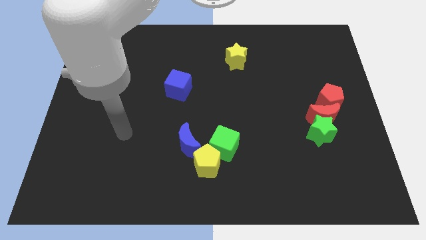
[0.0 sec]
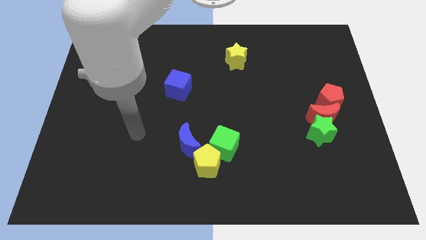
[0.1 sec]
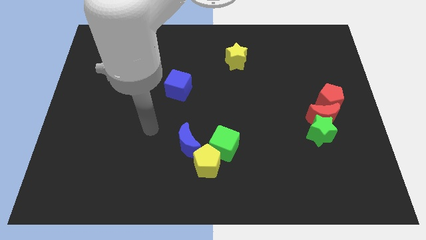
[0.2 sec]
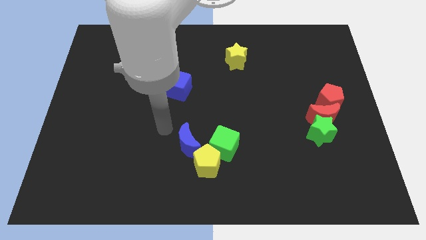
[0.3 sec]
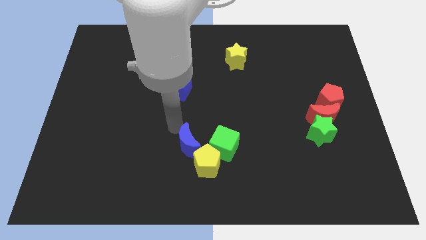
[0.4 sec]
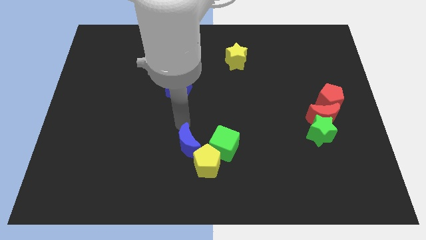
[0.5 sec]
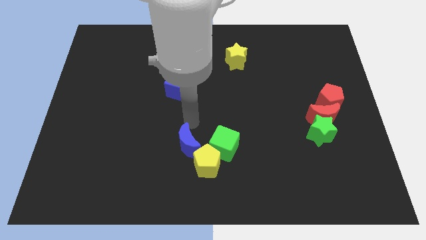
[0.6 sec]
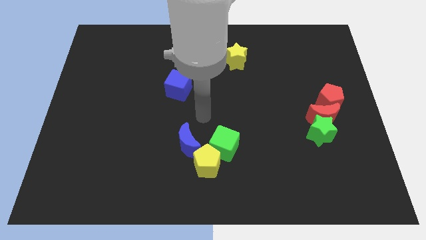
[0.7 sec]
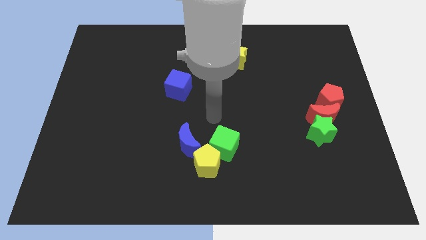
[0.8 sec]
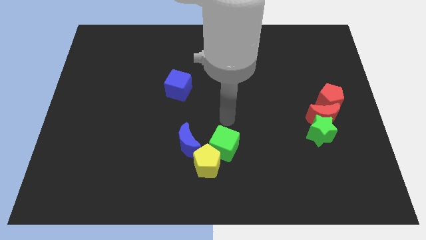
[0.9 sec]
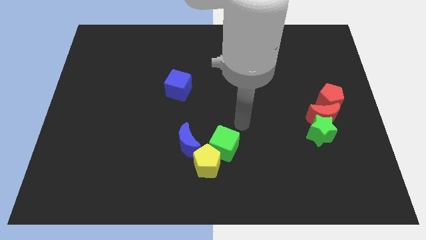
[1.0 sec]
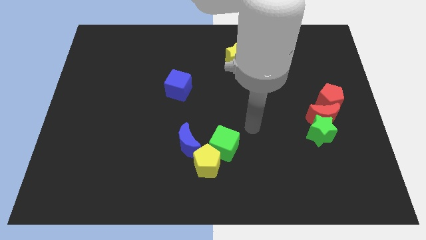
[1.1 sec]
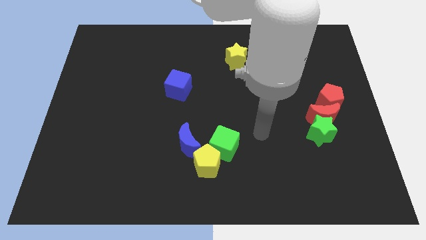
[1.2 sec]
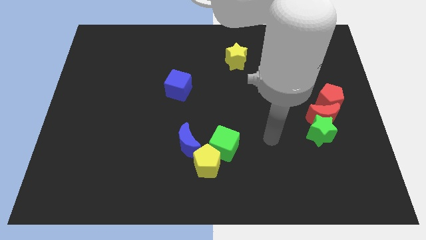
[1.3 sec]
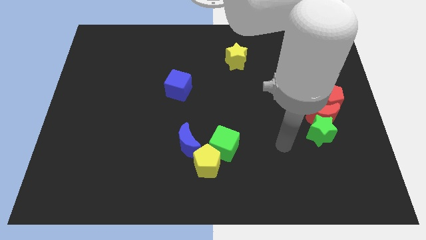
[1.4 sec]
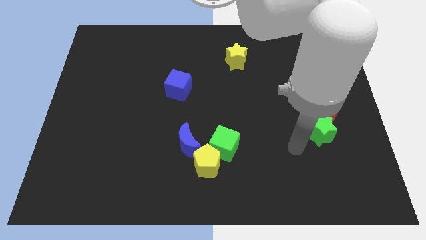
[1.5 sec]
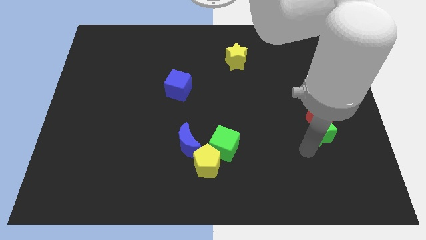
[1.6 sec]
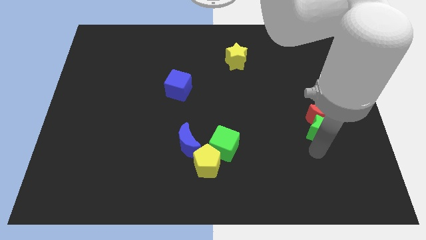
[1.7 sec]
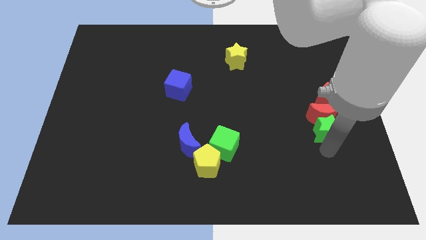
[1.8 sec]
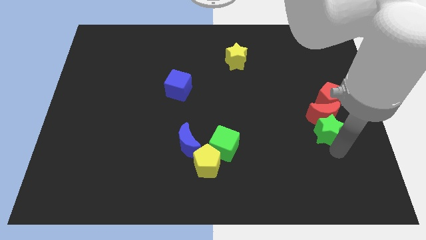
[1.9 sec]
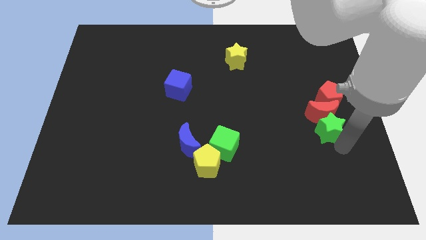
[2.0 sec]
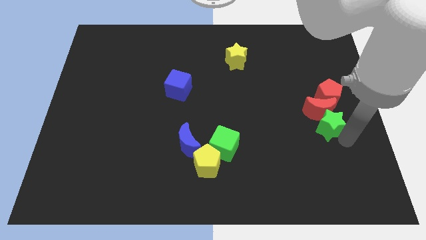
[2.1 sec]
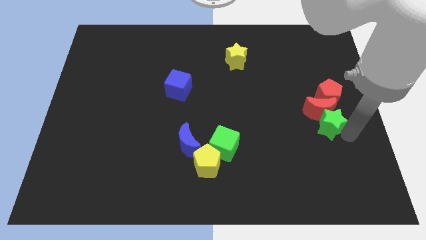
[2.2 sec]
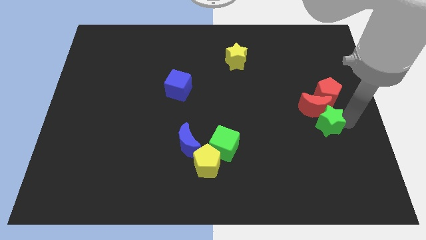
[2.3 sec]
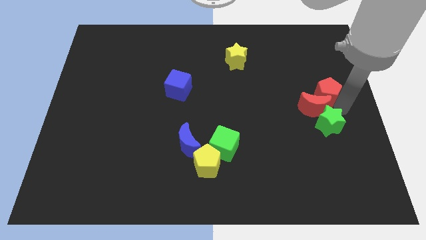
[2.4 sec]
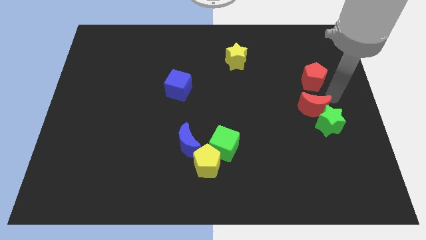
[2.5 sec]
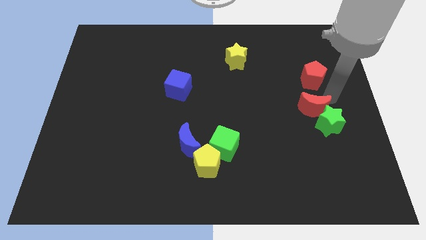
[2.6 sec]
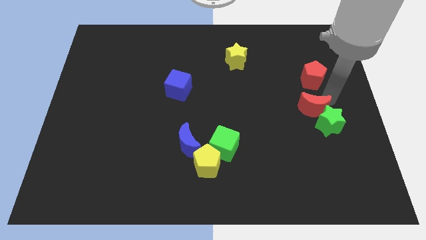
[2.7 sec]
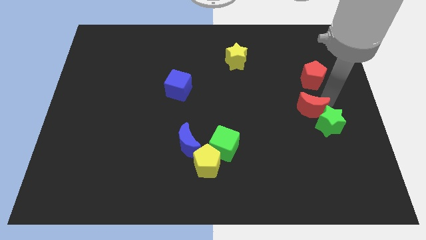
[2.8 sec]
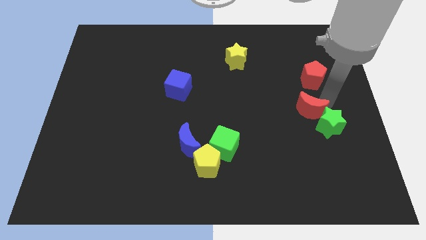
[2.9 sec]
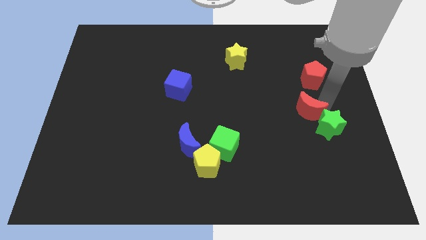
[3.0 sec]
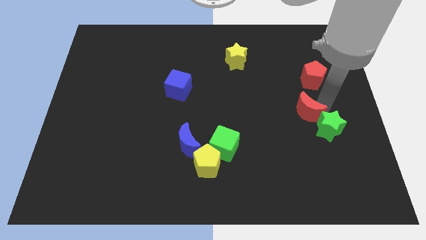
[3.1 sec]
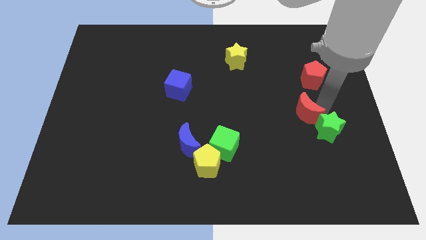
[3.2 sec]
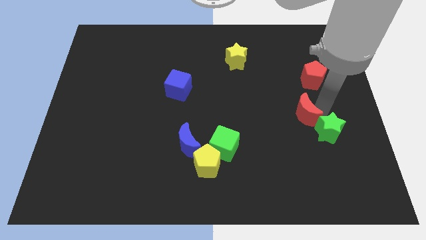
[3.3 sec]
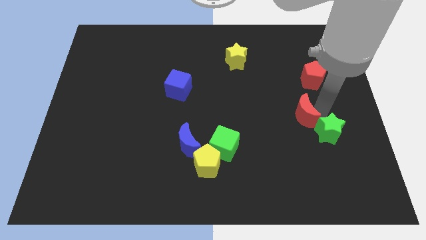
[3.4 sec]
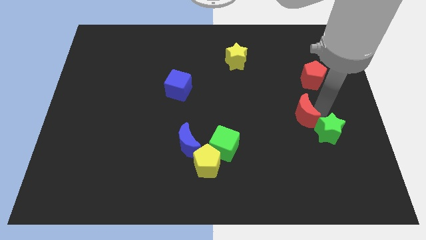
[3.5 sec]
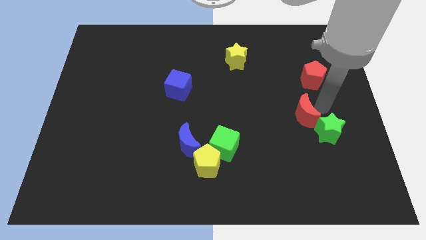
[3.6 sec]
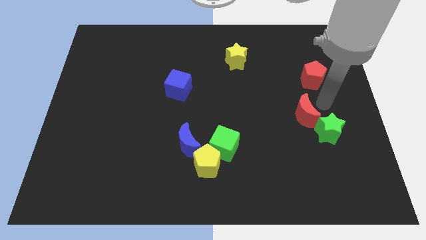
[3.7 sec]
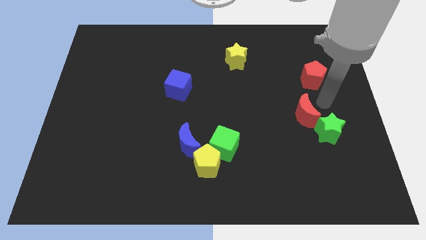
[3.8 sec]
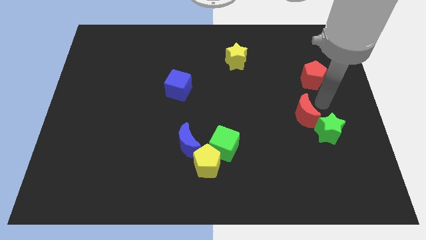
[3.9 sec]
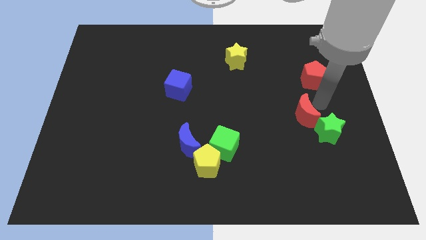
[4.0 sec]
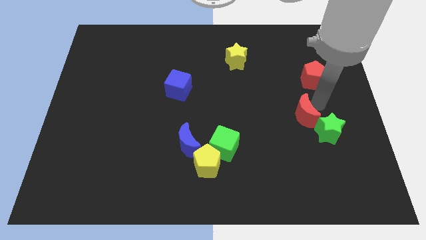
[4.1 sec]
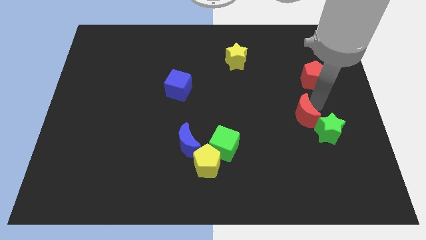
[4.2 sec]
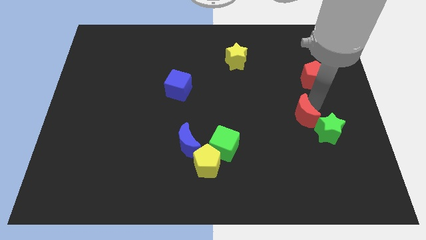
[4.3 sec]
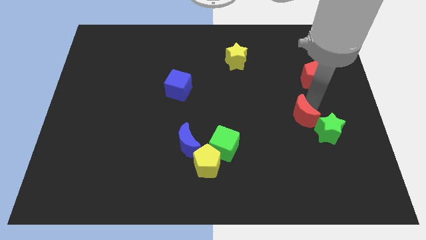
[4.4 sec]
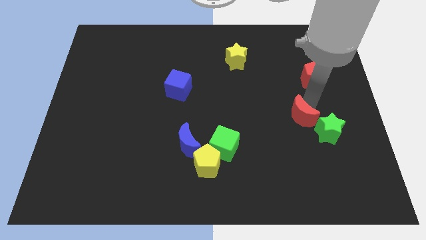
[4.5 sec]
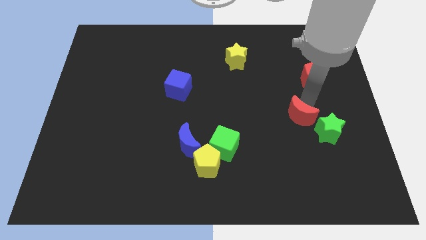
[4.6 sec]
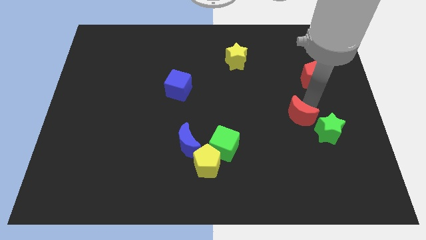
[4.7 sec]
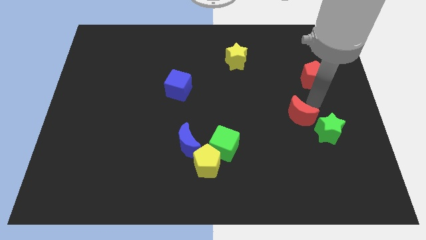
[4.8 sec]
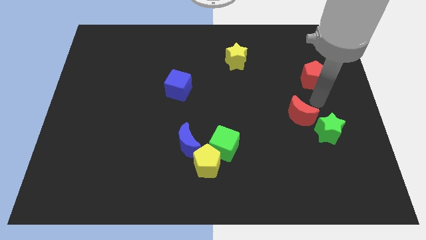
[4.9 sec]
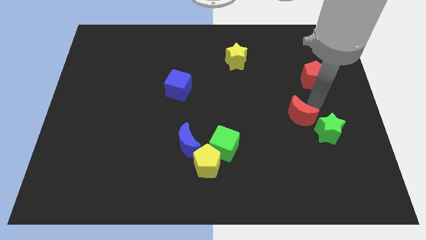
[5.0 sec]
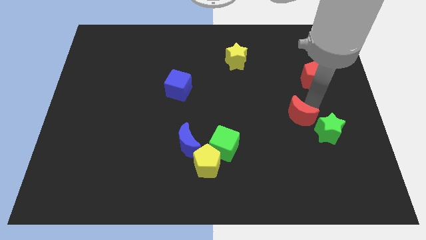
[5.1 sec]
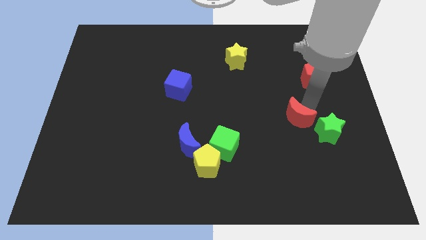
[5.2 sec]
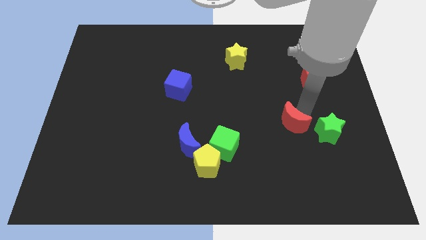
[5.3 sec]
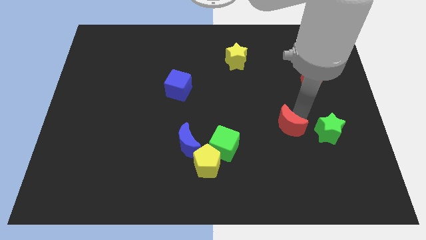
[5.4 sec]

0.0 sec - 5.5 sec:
pull the red moon apart from the green star and red pentagon

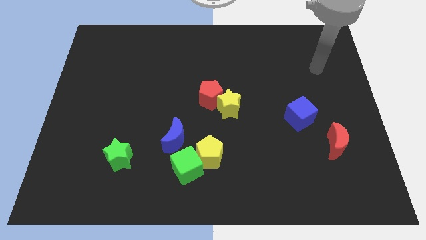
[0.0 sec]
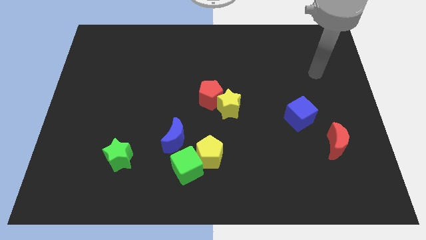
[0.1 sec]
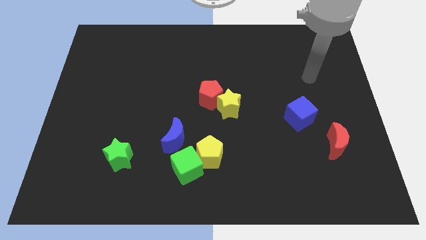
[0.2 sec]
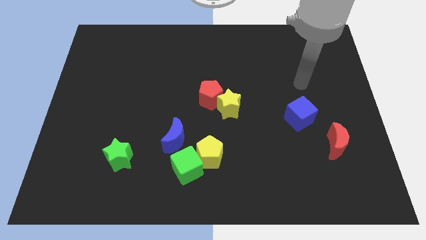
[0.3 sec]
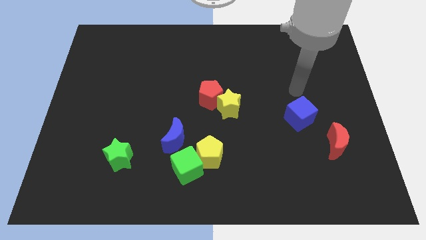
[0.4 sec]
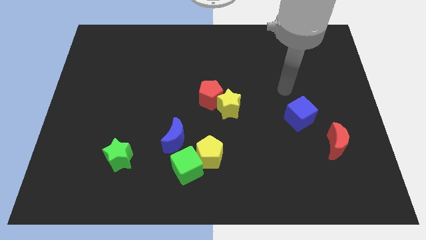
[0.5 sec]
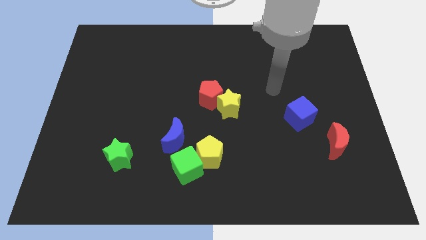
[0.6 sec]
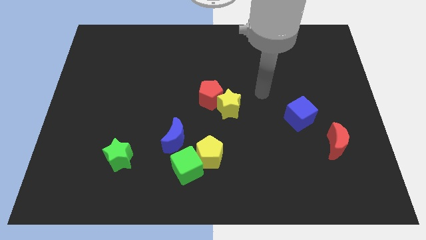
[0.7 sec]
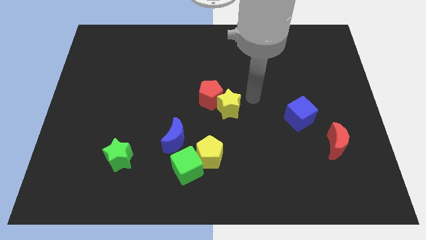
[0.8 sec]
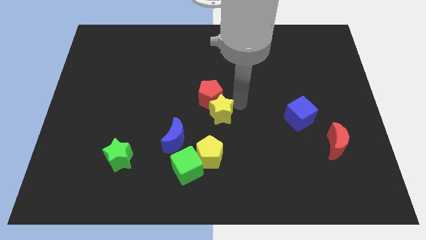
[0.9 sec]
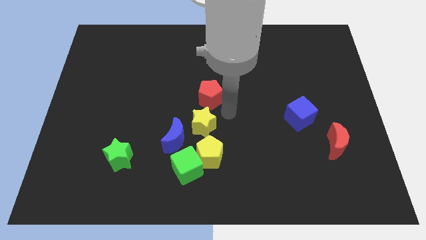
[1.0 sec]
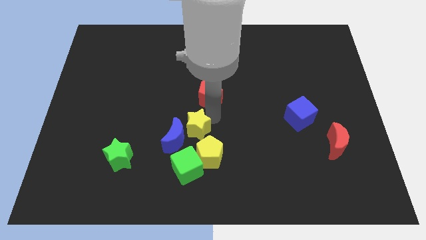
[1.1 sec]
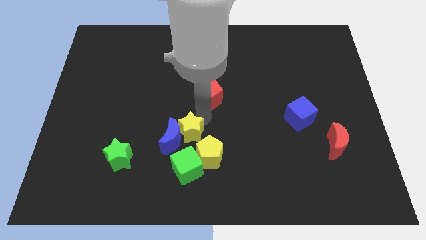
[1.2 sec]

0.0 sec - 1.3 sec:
move the red pentagon away from the yellow star

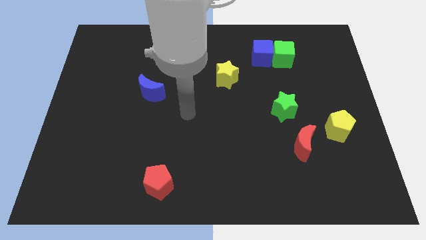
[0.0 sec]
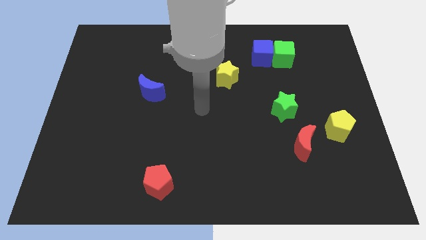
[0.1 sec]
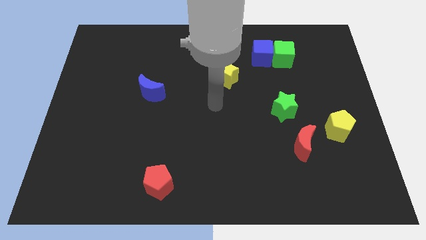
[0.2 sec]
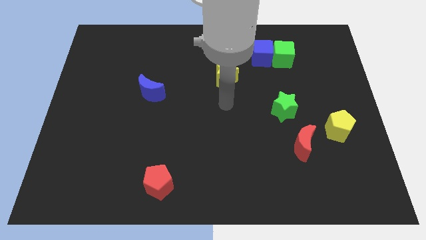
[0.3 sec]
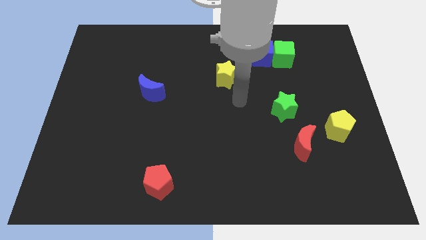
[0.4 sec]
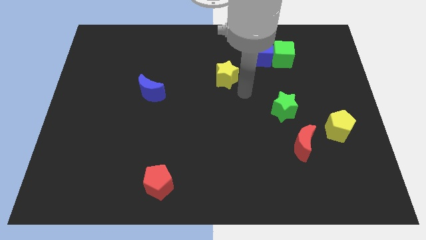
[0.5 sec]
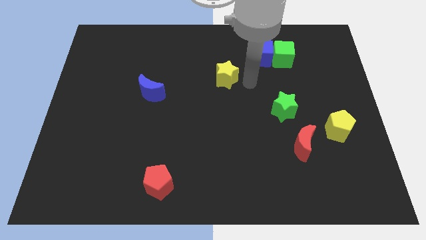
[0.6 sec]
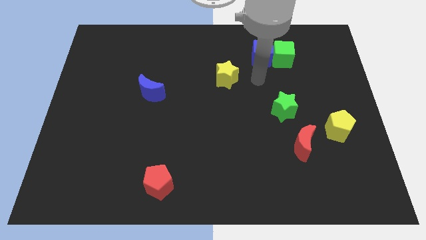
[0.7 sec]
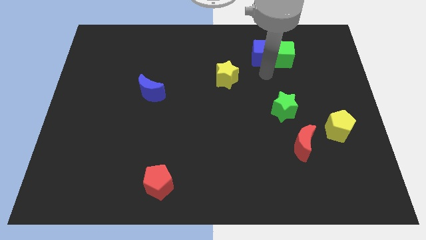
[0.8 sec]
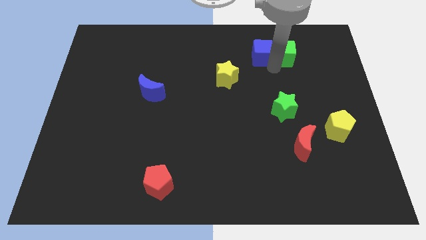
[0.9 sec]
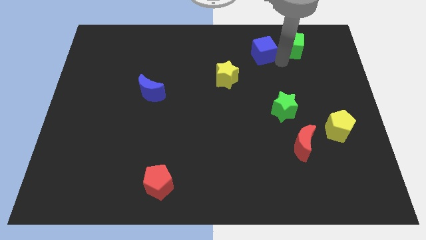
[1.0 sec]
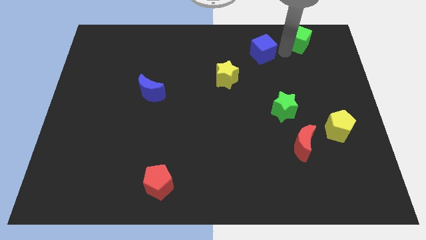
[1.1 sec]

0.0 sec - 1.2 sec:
separate the blue cube from the green cube

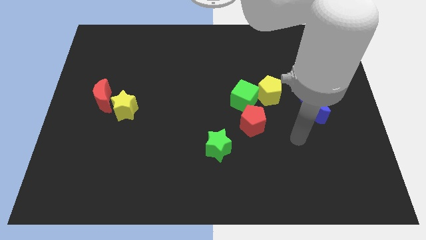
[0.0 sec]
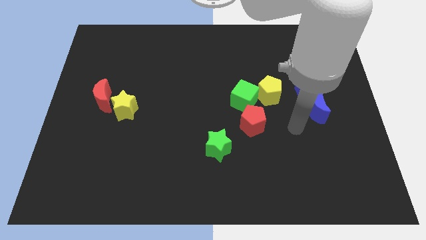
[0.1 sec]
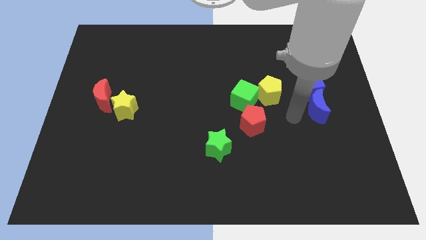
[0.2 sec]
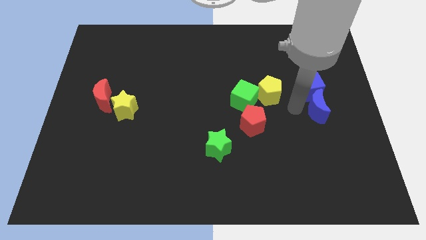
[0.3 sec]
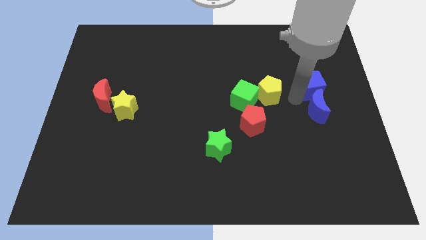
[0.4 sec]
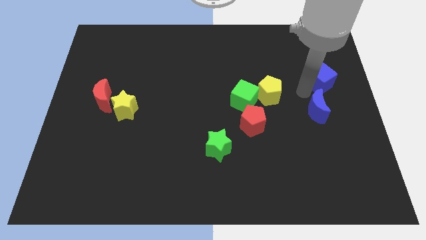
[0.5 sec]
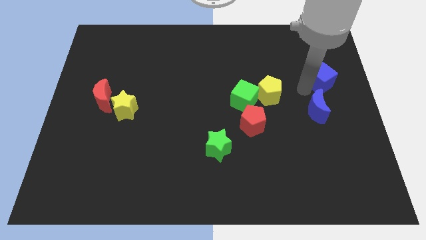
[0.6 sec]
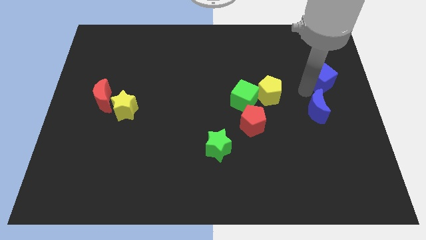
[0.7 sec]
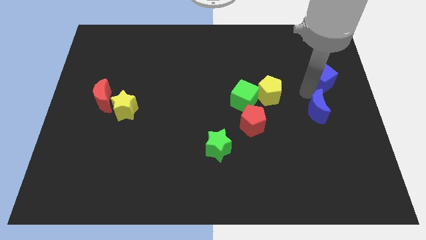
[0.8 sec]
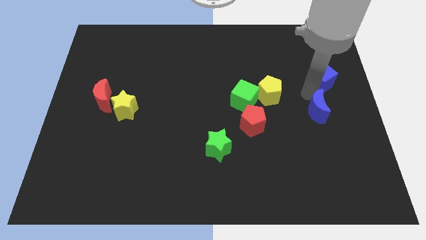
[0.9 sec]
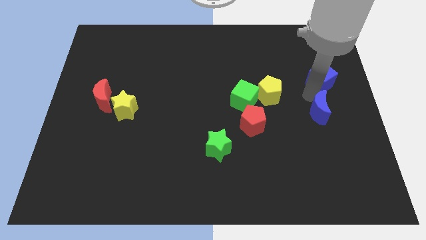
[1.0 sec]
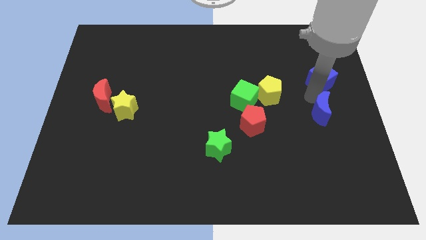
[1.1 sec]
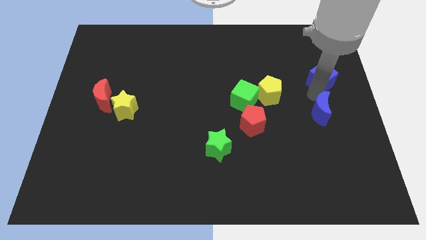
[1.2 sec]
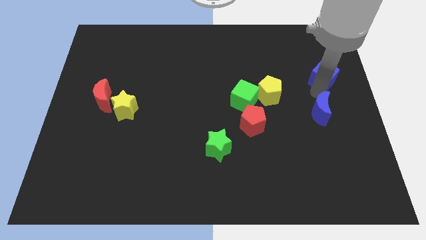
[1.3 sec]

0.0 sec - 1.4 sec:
separate the blue moon from the blue cube
